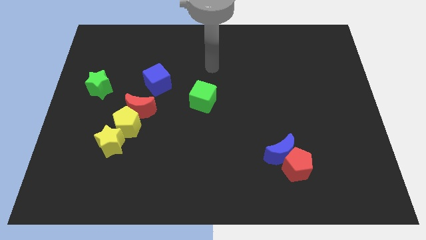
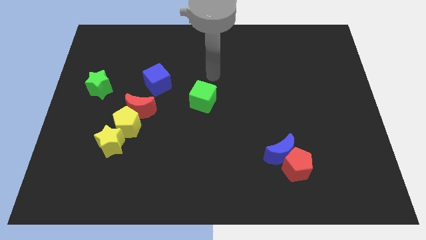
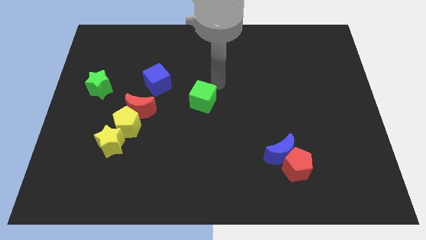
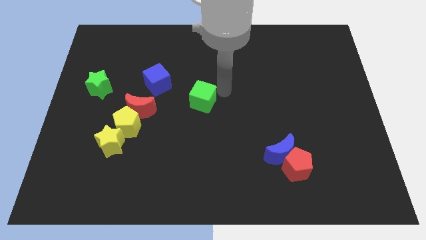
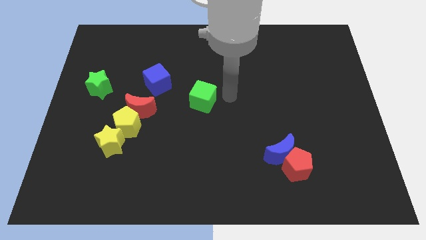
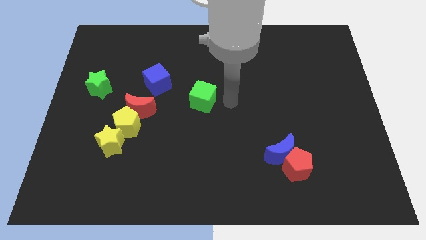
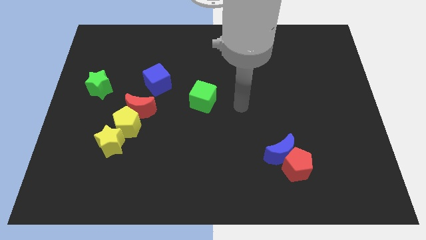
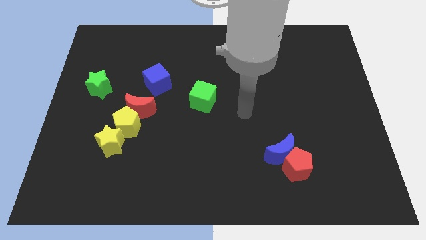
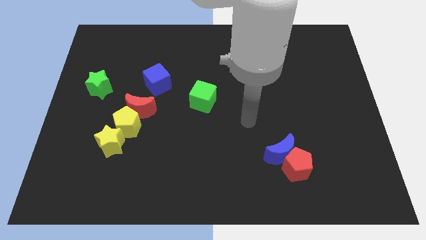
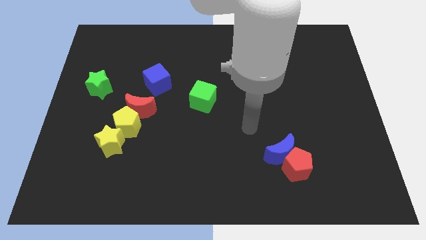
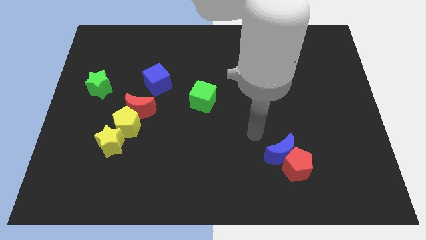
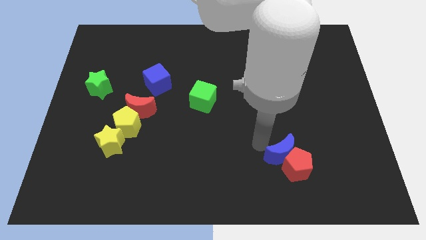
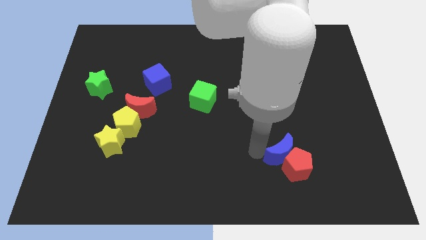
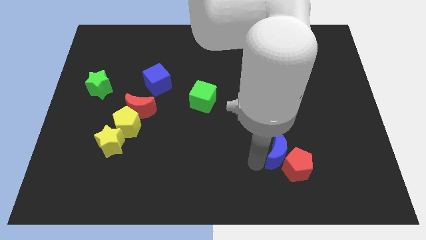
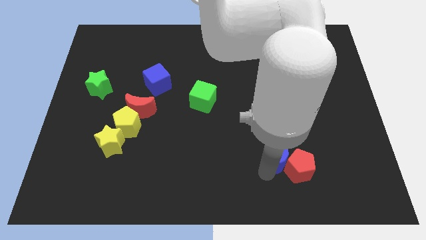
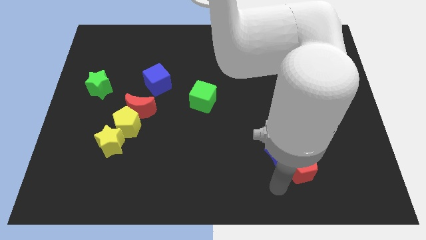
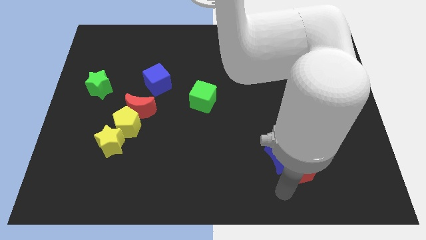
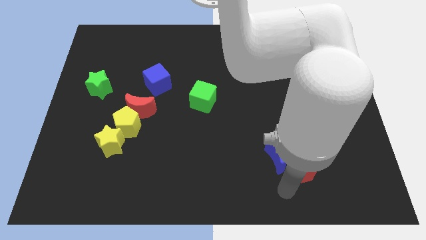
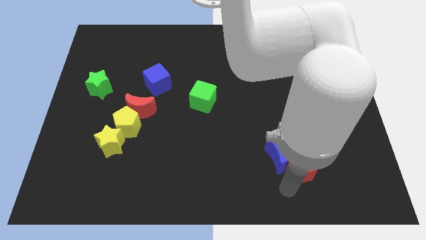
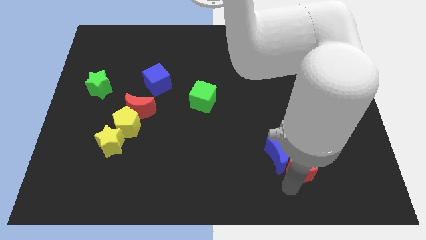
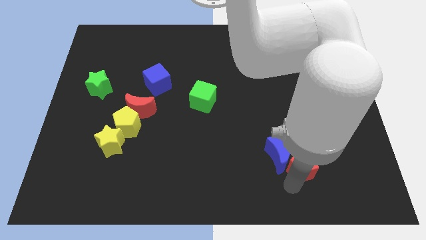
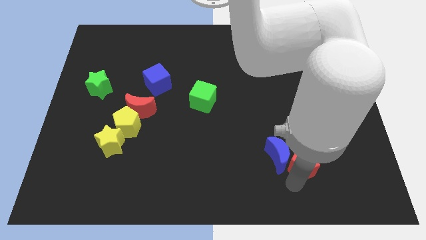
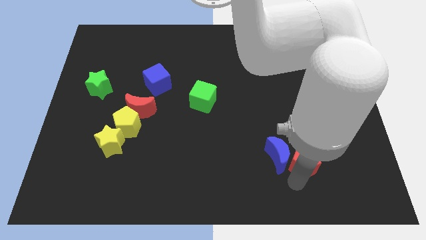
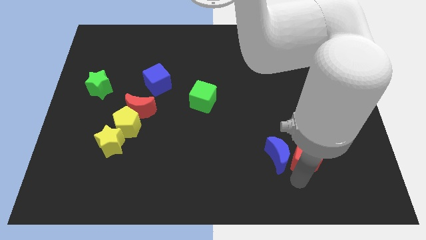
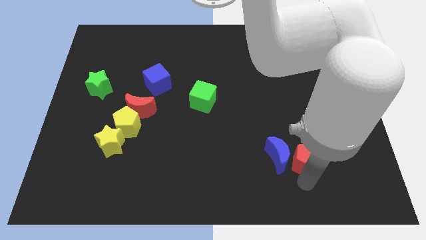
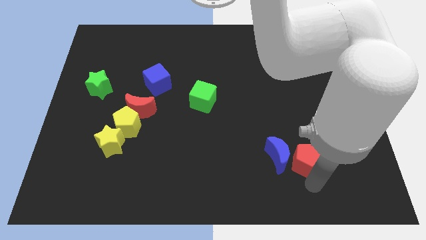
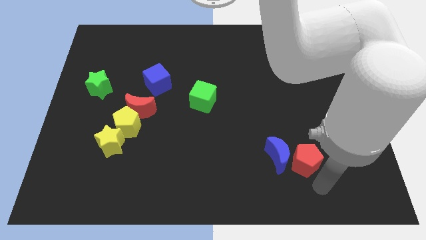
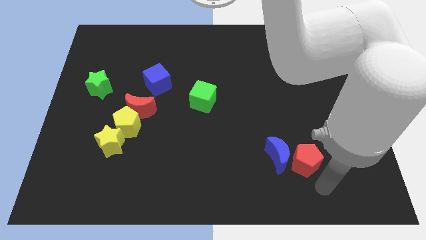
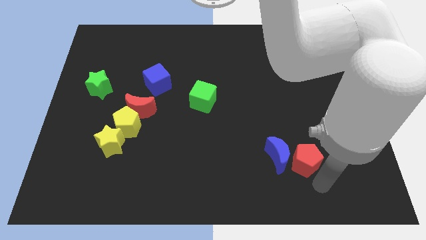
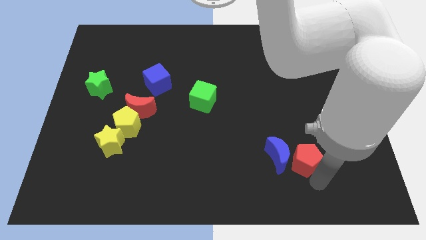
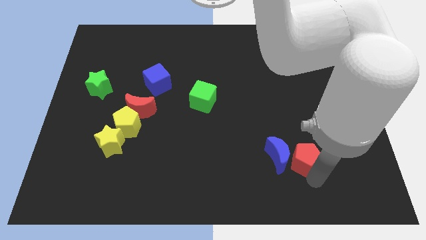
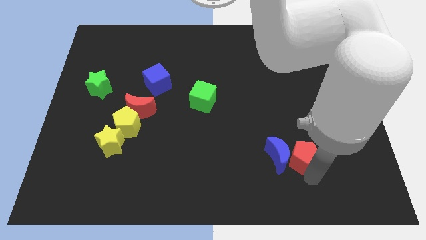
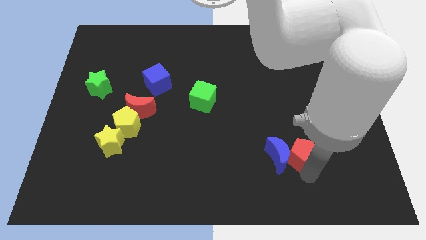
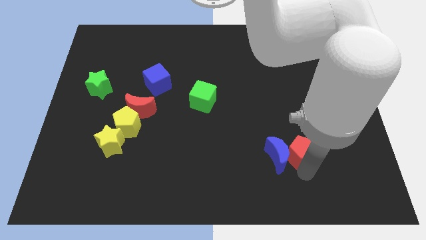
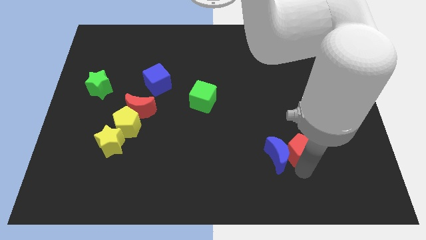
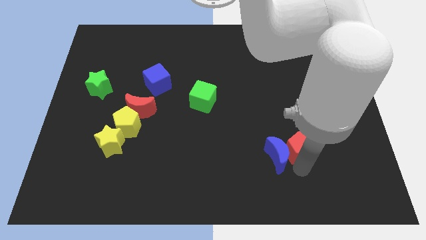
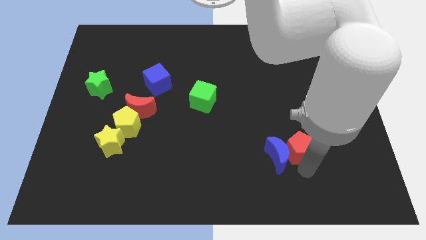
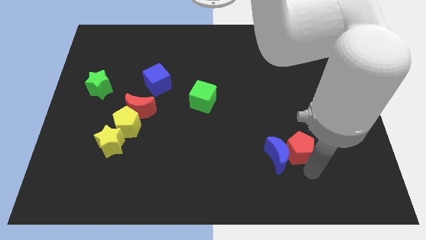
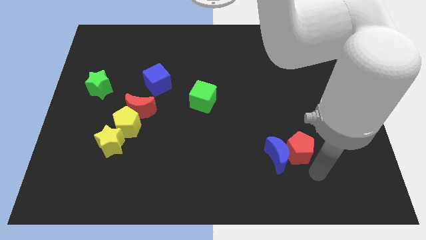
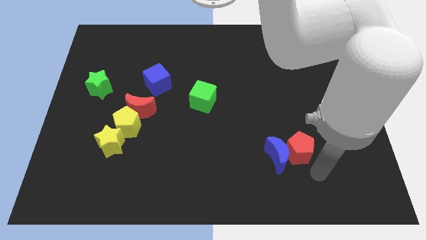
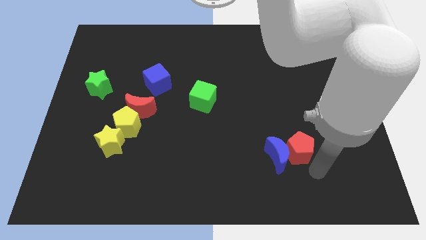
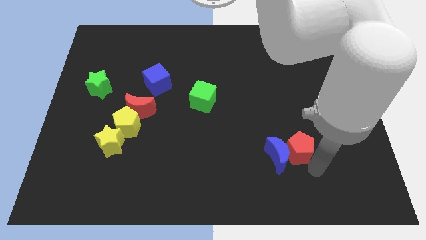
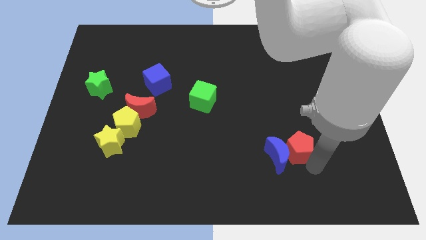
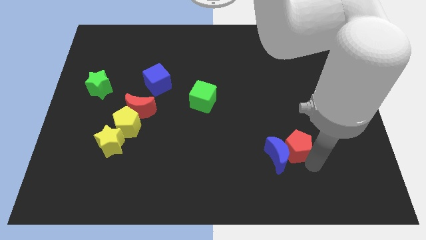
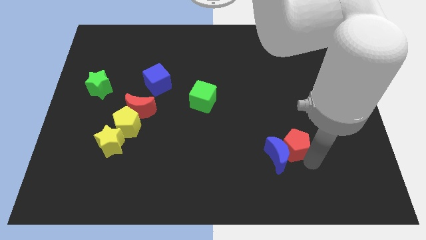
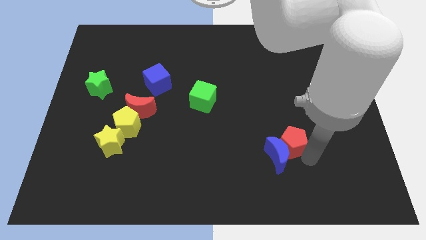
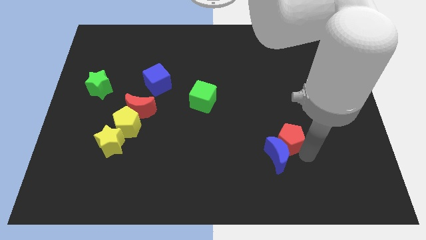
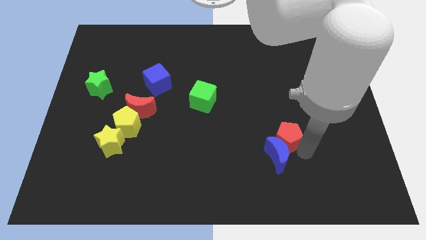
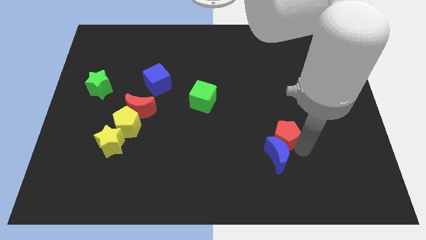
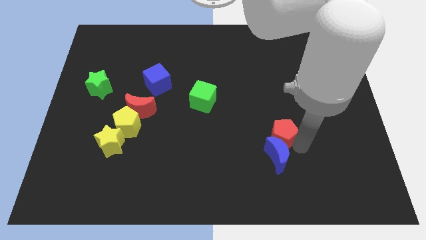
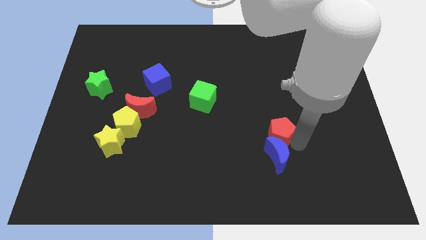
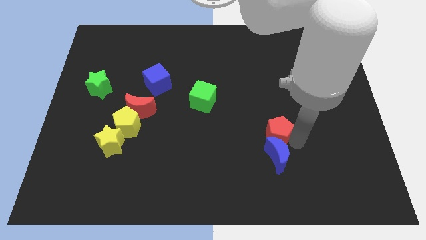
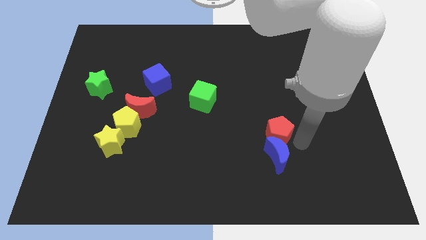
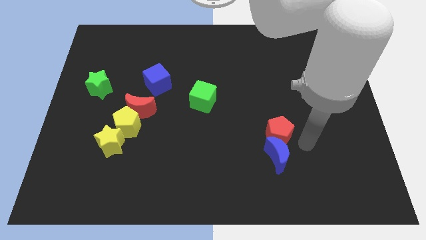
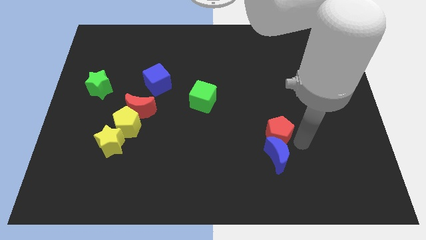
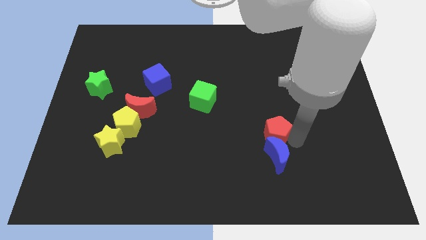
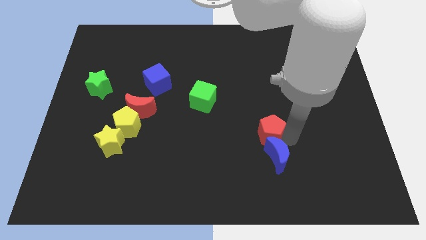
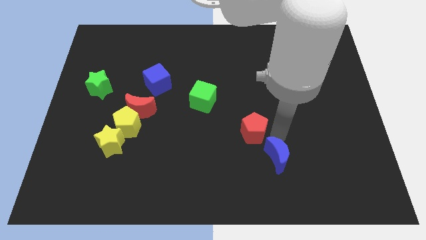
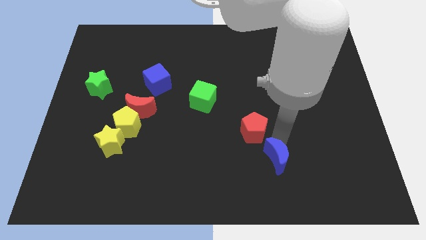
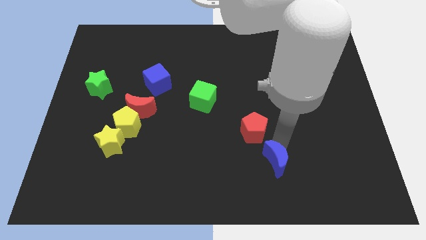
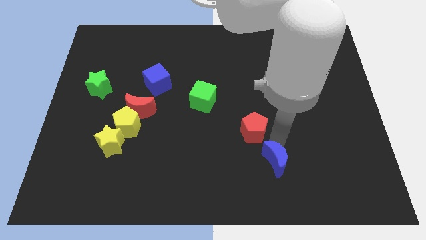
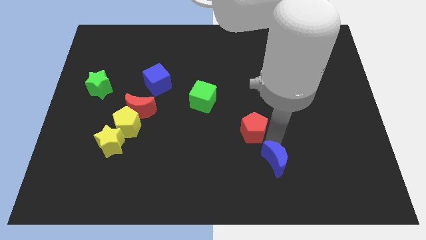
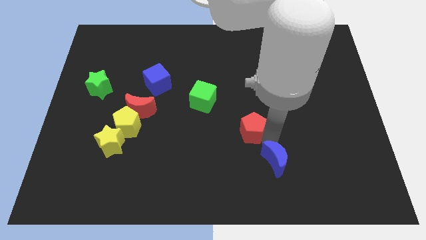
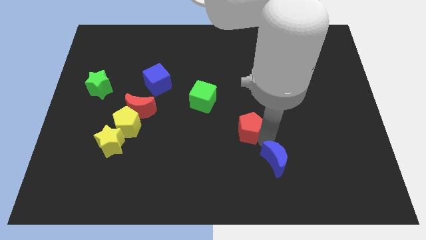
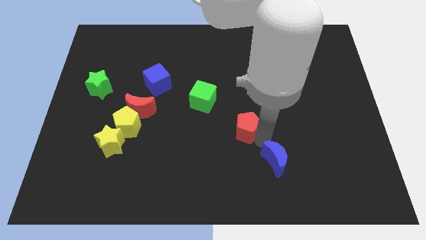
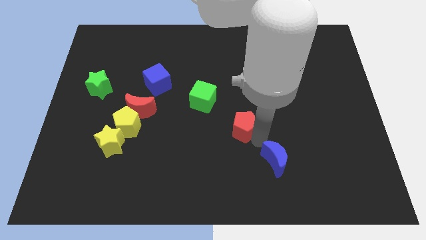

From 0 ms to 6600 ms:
push the red pentagon to the bottom right side of the green cube
